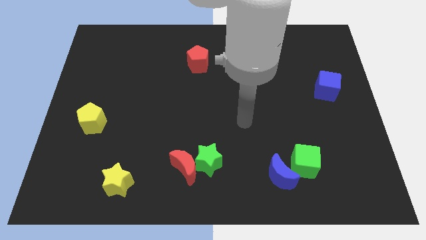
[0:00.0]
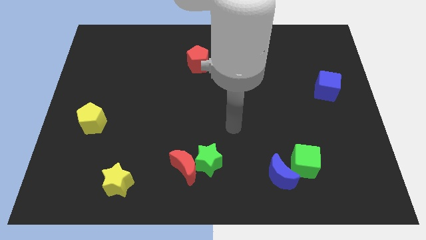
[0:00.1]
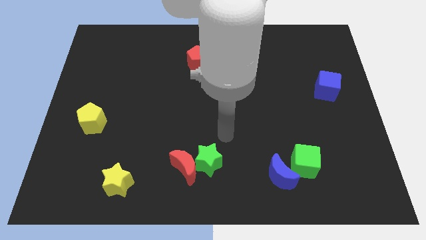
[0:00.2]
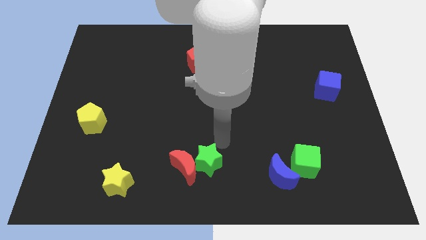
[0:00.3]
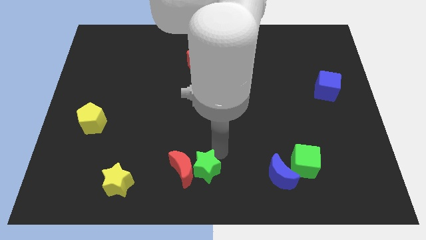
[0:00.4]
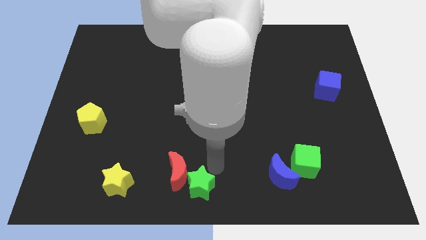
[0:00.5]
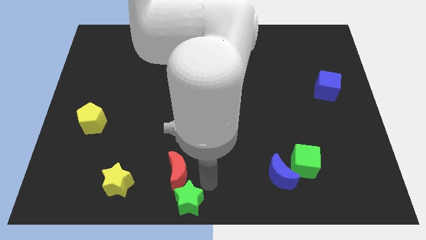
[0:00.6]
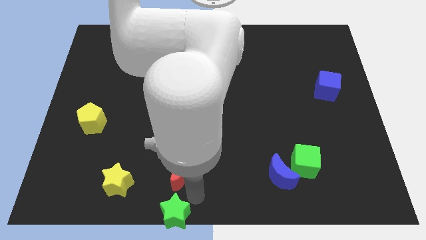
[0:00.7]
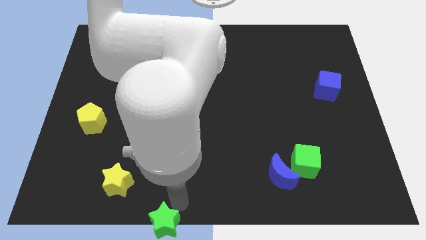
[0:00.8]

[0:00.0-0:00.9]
separate the red moon from the green star

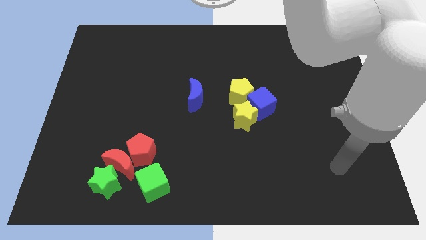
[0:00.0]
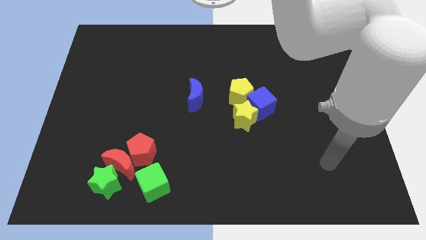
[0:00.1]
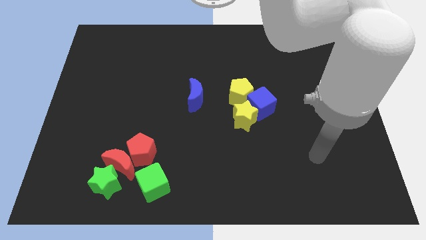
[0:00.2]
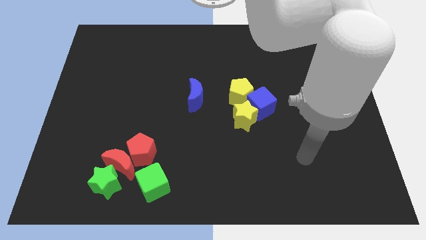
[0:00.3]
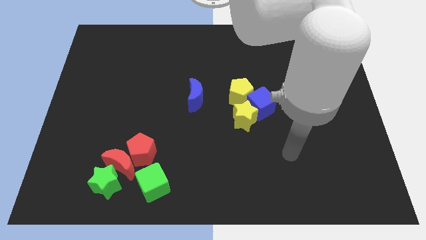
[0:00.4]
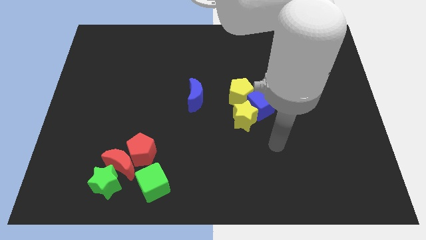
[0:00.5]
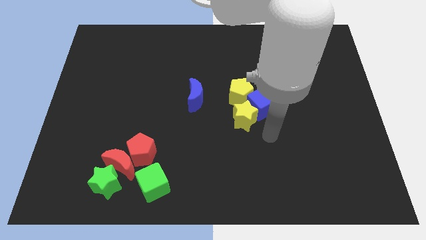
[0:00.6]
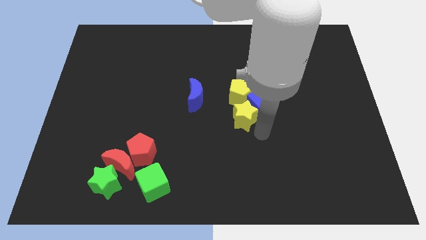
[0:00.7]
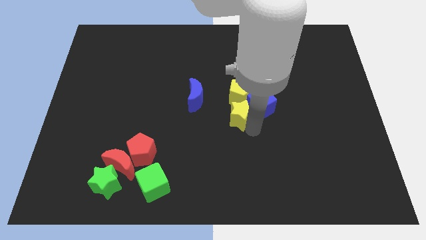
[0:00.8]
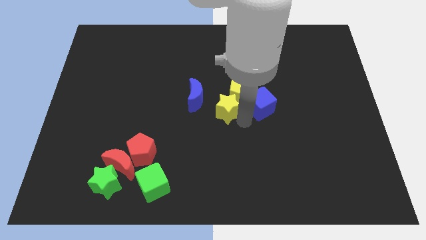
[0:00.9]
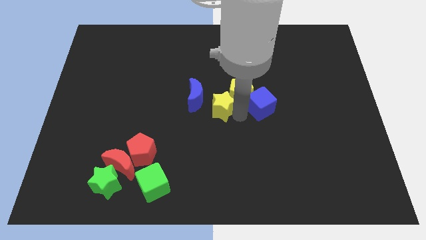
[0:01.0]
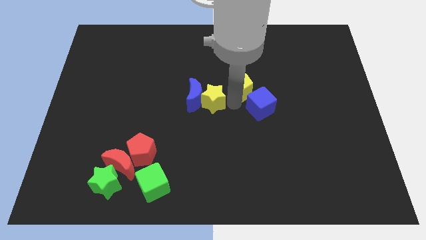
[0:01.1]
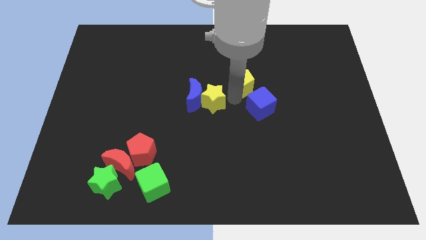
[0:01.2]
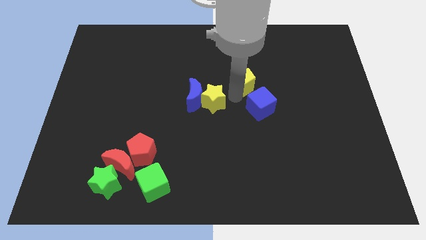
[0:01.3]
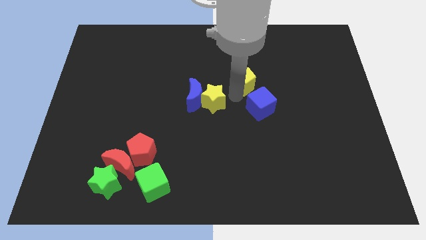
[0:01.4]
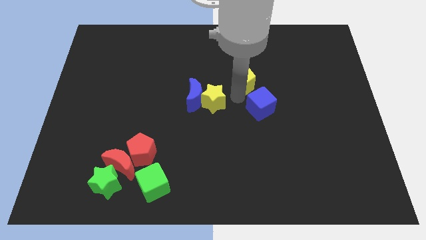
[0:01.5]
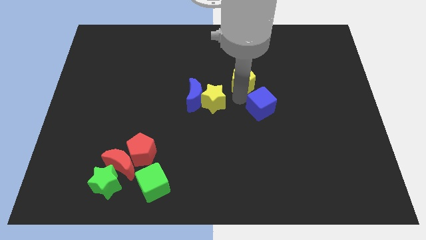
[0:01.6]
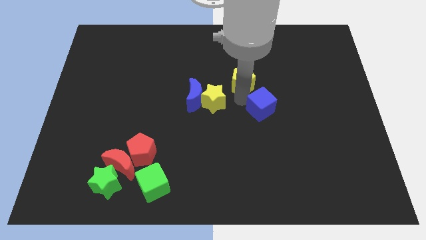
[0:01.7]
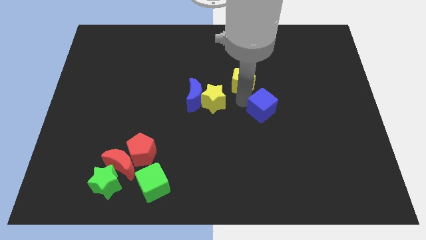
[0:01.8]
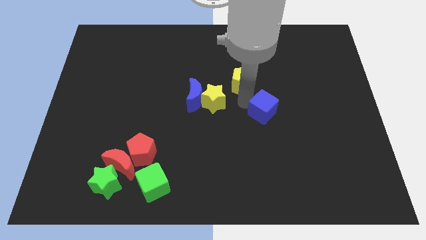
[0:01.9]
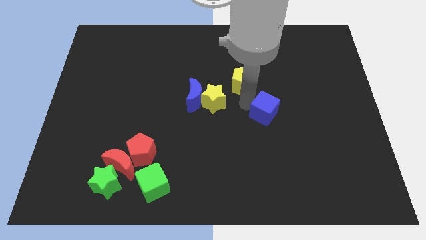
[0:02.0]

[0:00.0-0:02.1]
pull the blue cube apart from the yellow star and yellow pentagon

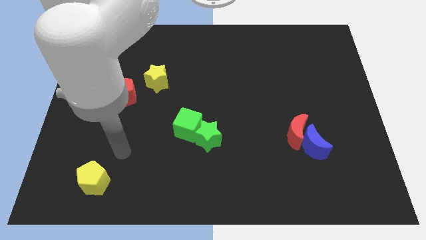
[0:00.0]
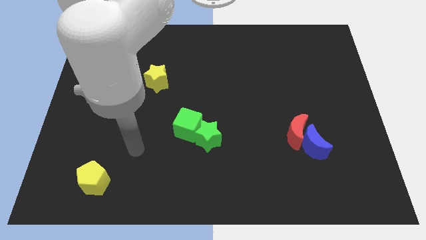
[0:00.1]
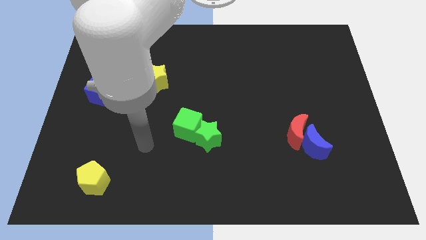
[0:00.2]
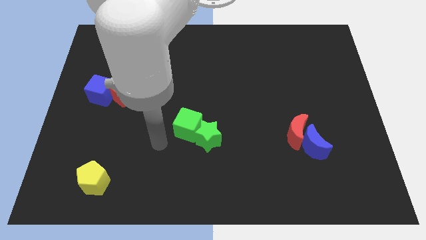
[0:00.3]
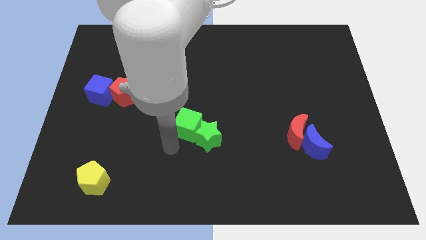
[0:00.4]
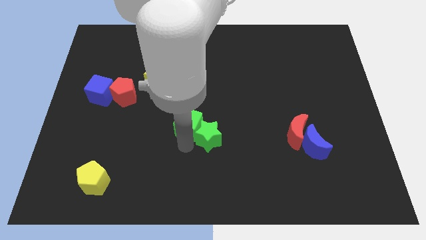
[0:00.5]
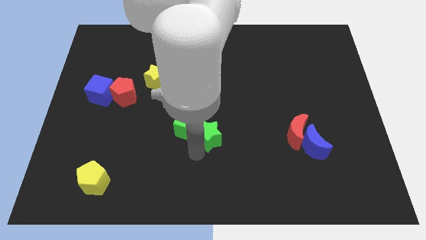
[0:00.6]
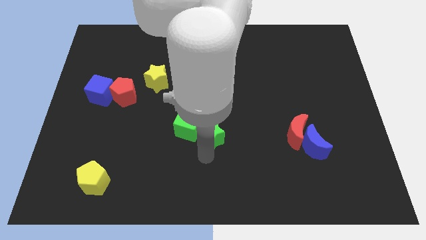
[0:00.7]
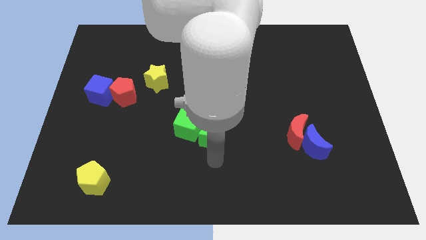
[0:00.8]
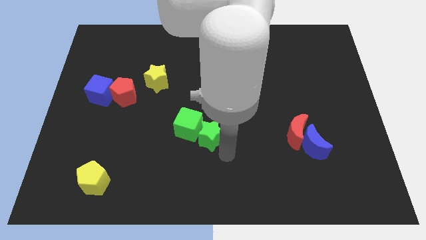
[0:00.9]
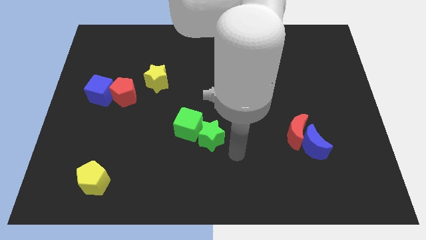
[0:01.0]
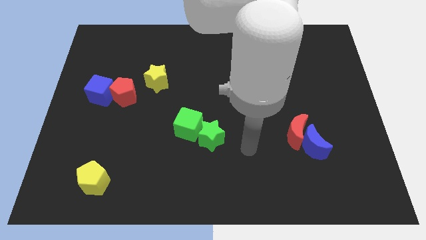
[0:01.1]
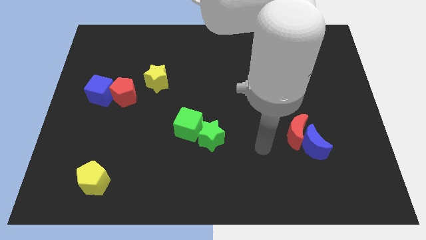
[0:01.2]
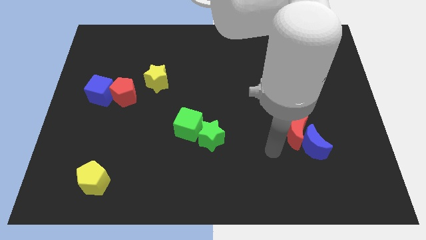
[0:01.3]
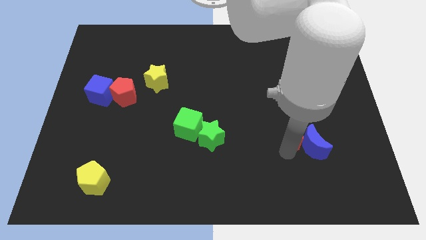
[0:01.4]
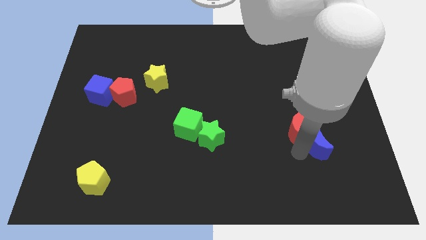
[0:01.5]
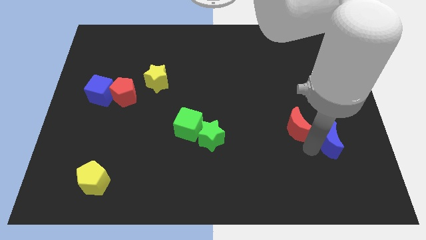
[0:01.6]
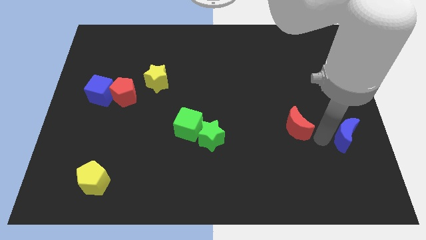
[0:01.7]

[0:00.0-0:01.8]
pull the red moon apart from the blue moon

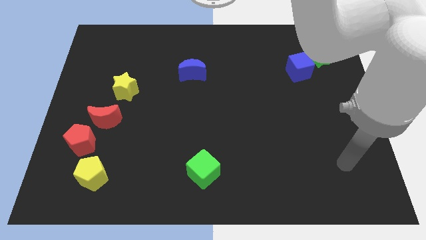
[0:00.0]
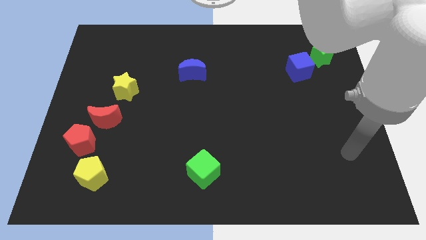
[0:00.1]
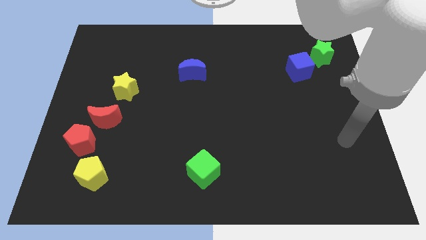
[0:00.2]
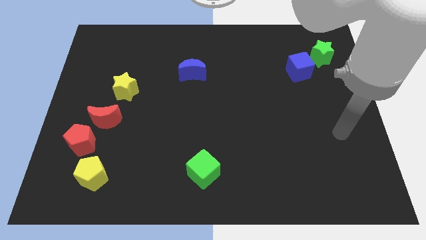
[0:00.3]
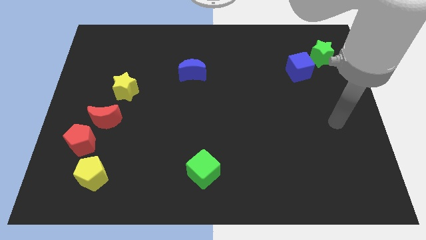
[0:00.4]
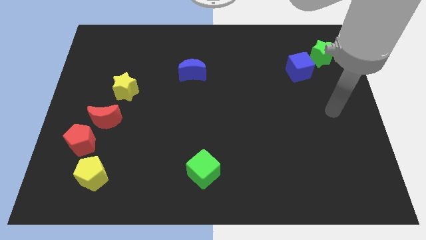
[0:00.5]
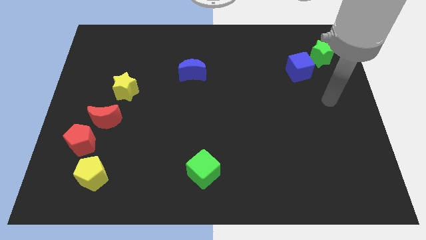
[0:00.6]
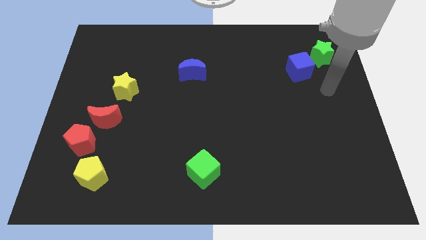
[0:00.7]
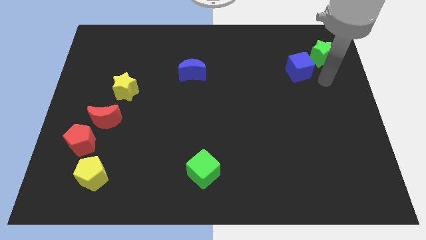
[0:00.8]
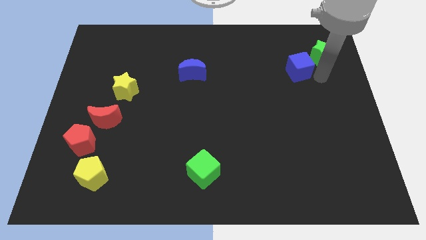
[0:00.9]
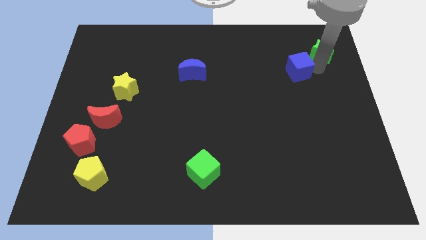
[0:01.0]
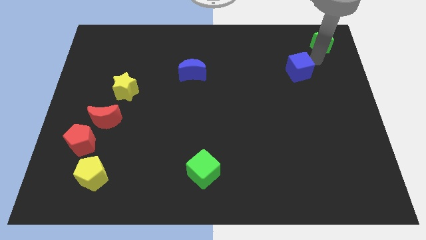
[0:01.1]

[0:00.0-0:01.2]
pull the blue cube apart from the green star

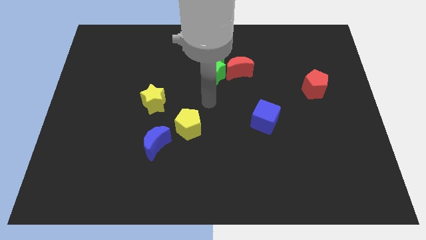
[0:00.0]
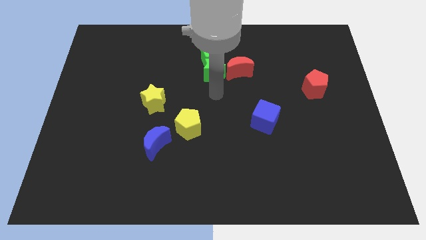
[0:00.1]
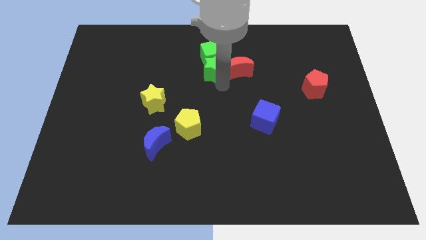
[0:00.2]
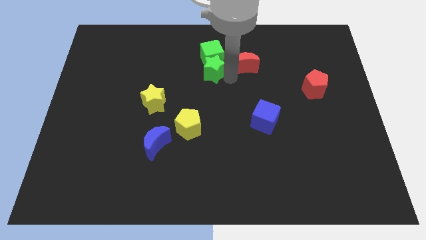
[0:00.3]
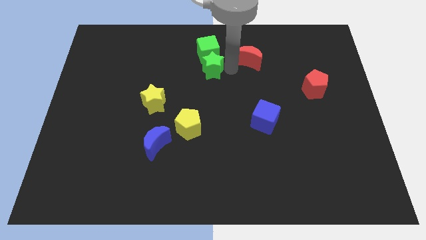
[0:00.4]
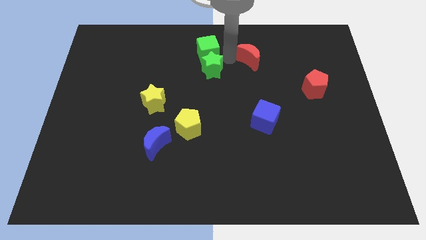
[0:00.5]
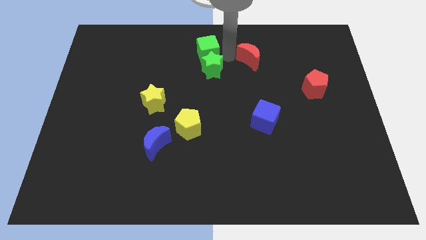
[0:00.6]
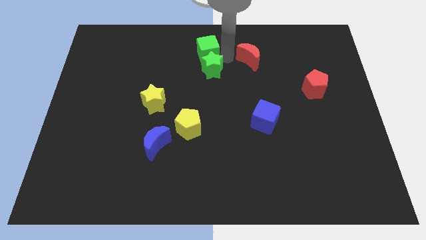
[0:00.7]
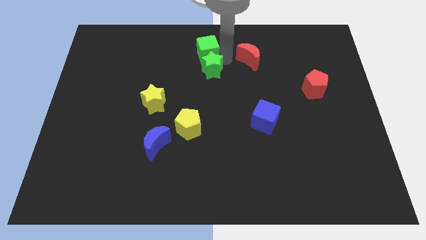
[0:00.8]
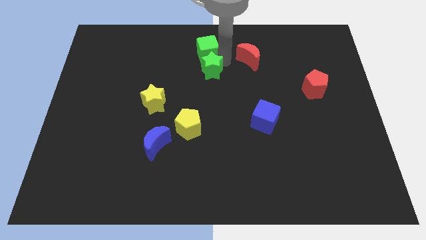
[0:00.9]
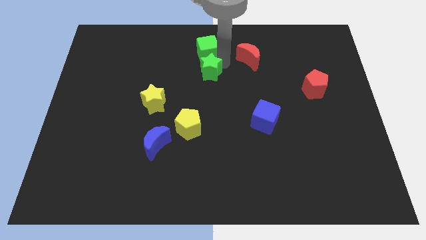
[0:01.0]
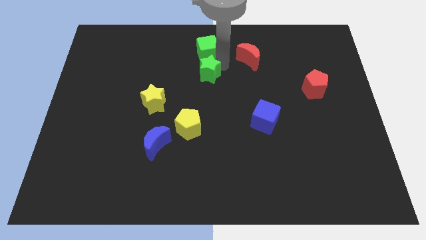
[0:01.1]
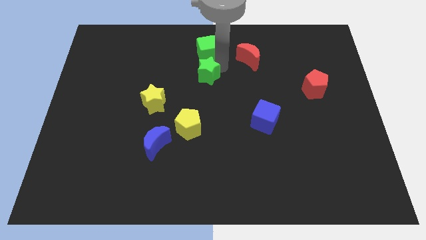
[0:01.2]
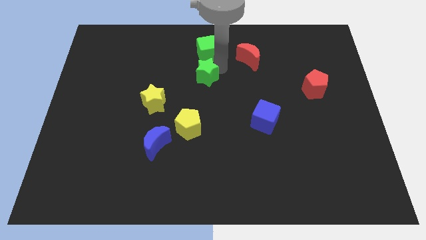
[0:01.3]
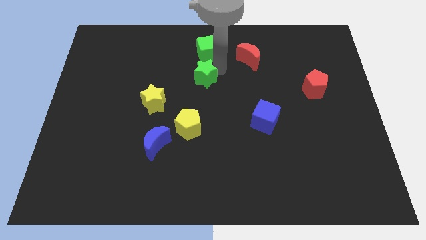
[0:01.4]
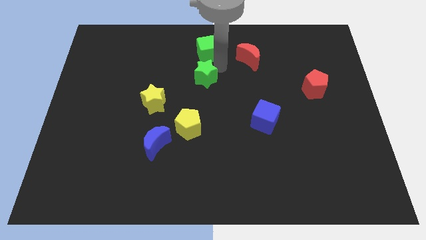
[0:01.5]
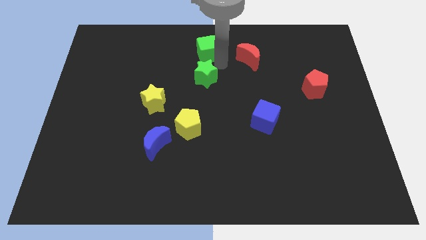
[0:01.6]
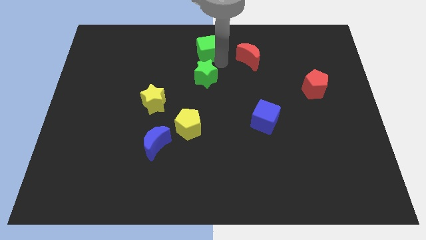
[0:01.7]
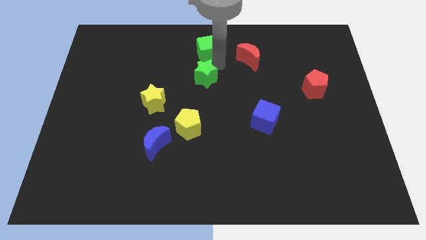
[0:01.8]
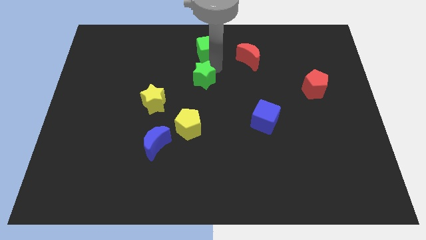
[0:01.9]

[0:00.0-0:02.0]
separate the green star from the green cube and red moon

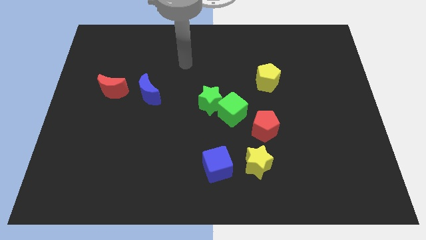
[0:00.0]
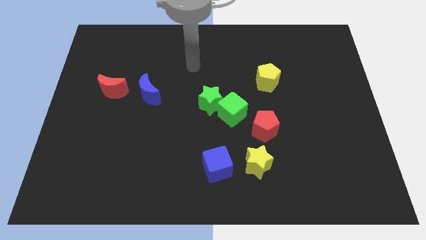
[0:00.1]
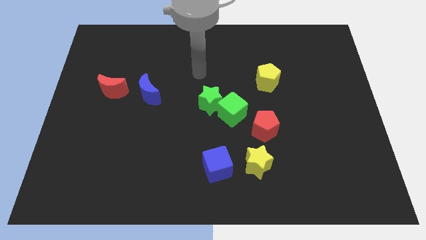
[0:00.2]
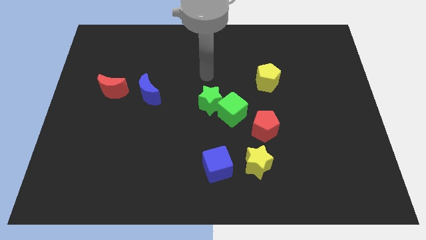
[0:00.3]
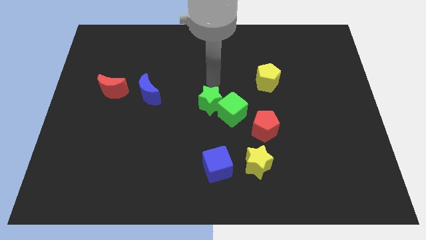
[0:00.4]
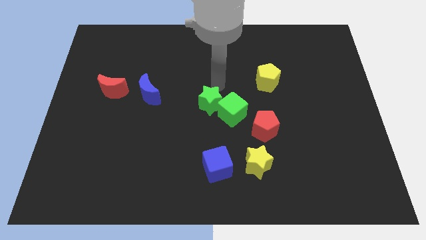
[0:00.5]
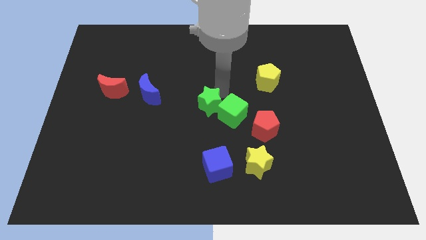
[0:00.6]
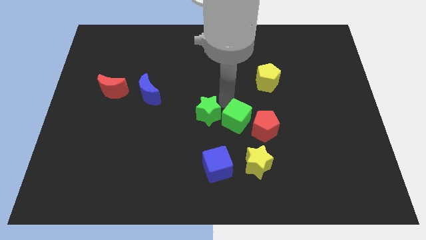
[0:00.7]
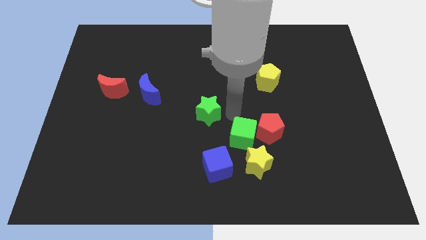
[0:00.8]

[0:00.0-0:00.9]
separate the green star from the green cube

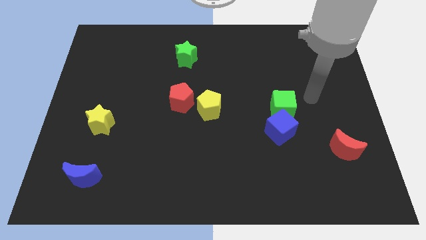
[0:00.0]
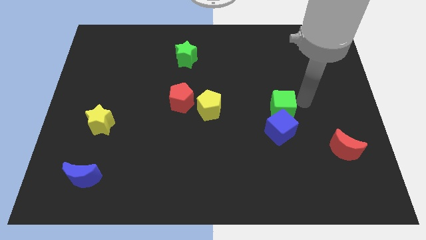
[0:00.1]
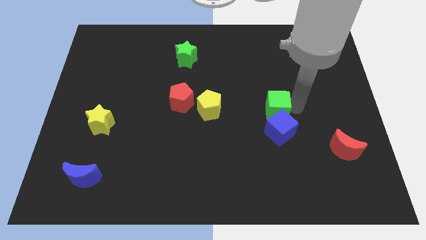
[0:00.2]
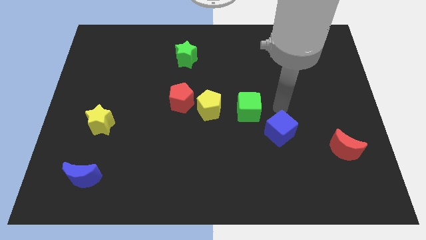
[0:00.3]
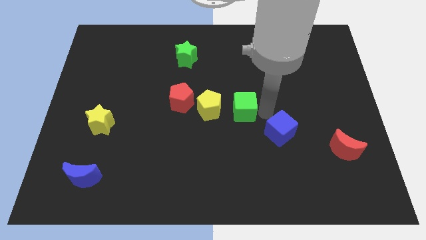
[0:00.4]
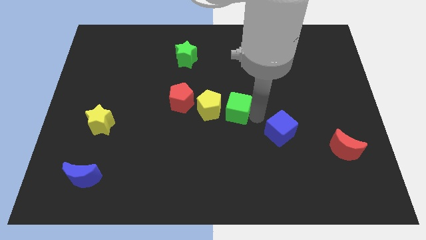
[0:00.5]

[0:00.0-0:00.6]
move the blue cube away from the green cube
